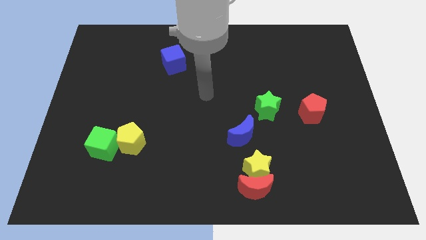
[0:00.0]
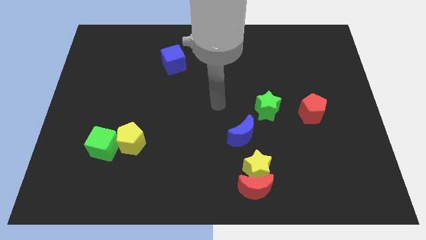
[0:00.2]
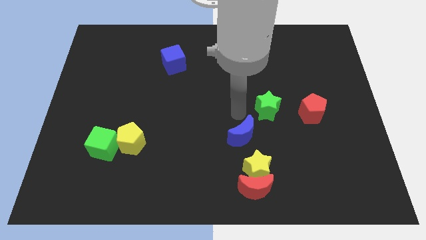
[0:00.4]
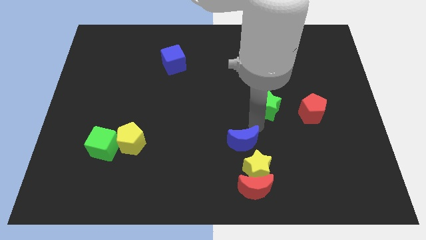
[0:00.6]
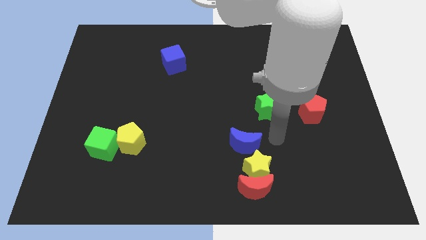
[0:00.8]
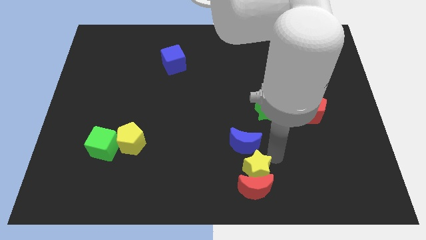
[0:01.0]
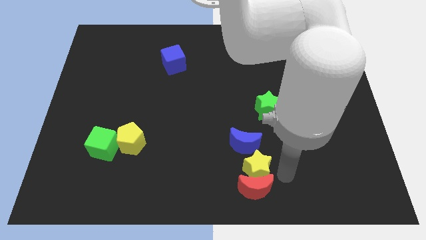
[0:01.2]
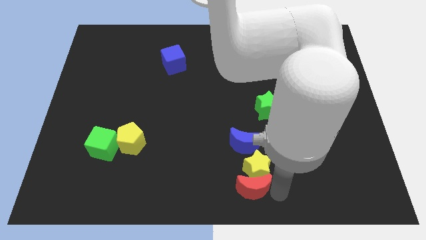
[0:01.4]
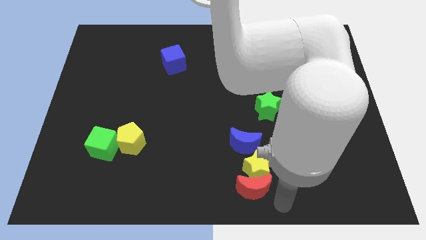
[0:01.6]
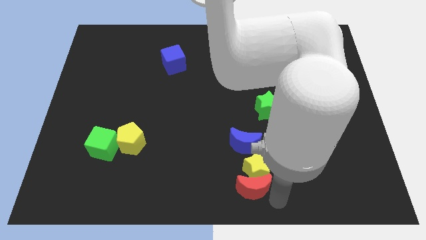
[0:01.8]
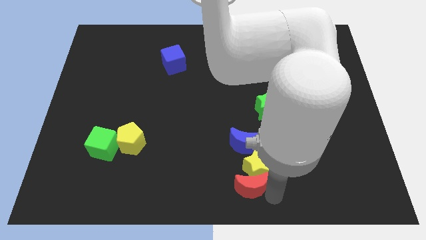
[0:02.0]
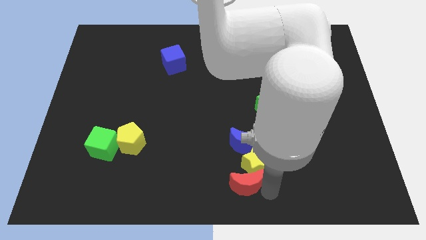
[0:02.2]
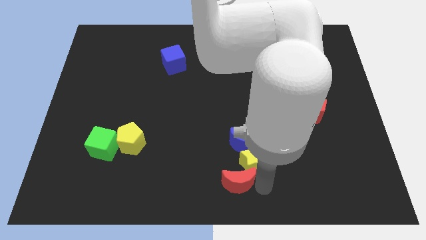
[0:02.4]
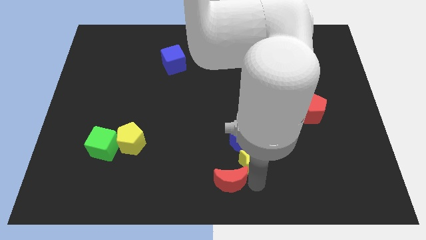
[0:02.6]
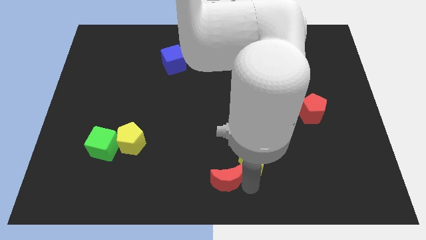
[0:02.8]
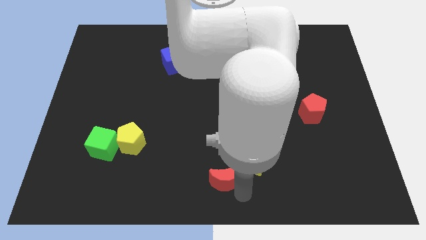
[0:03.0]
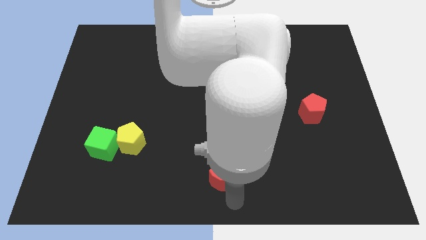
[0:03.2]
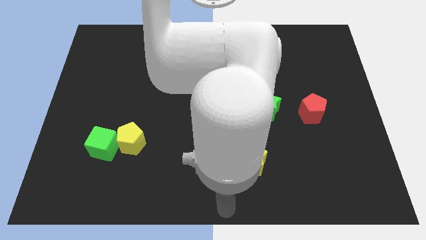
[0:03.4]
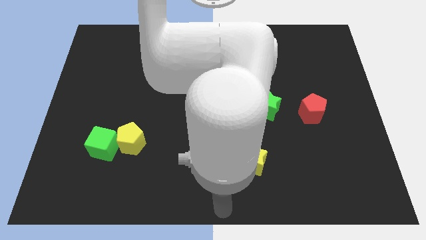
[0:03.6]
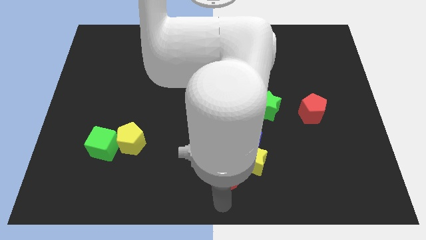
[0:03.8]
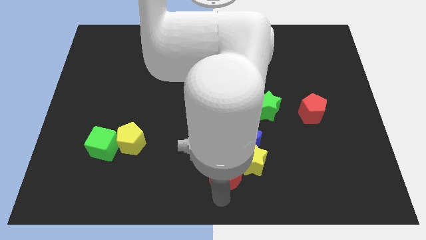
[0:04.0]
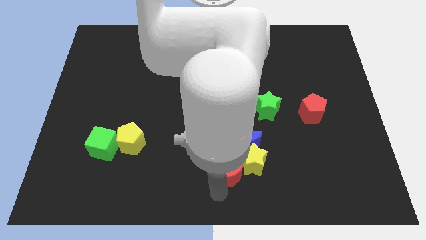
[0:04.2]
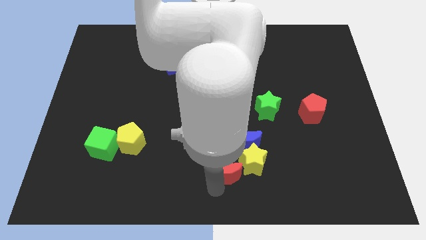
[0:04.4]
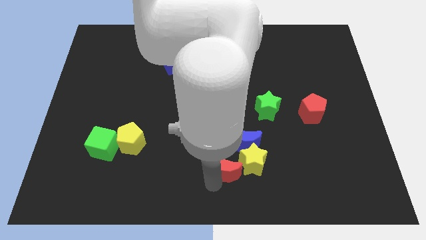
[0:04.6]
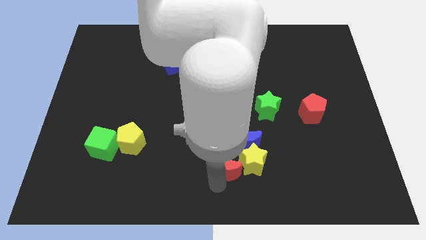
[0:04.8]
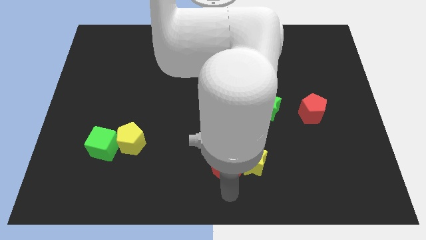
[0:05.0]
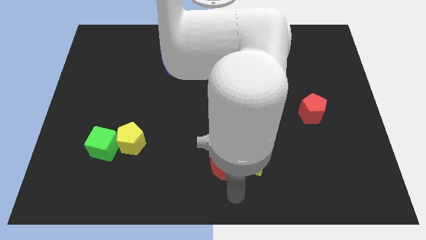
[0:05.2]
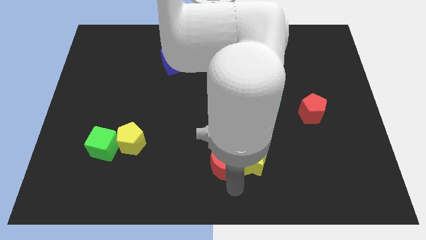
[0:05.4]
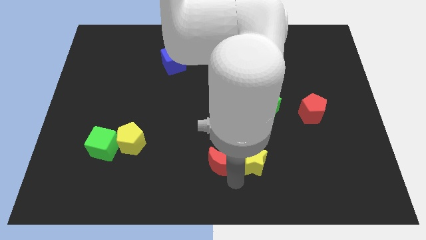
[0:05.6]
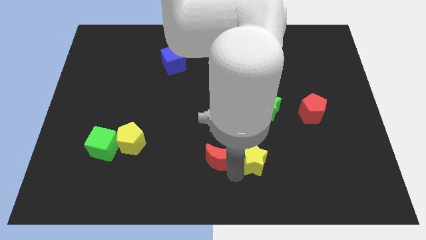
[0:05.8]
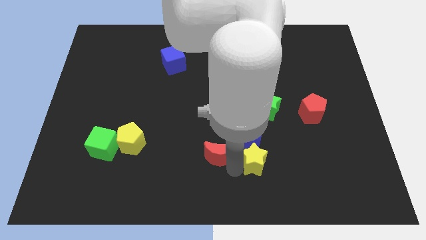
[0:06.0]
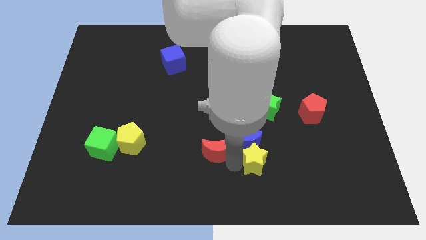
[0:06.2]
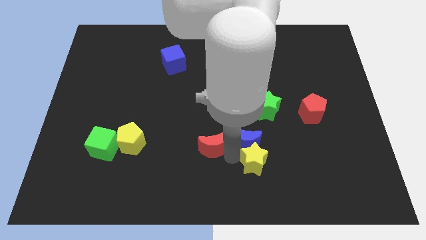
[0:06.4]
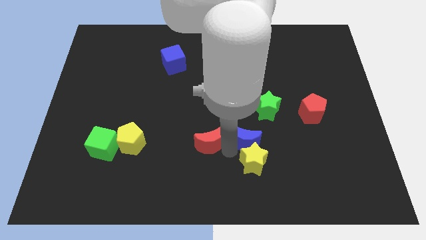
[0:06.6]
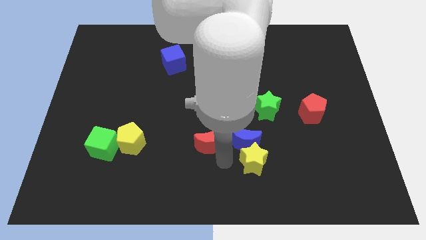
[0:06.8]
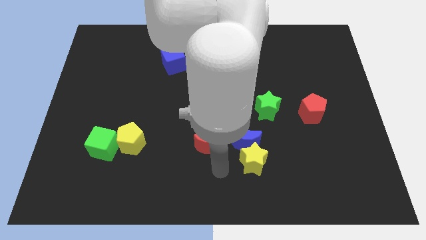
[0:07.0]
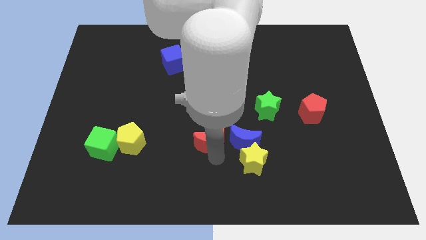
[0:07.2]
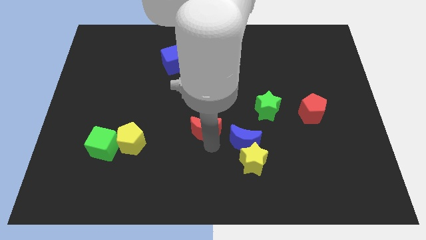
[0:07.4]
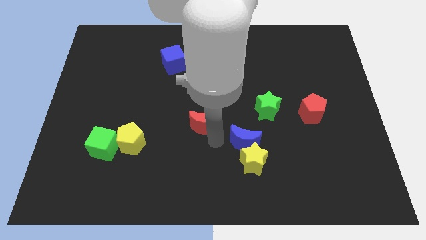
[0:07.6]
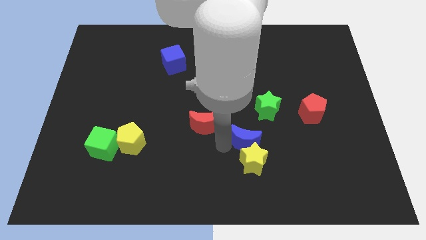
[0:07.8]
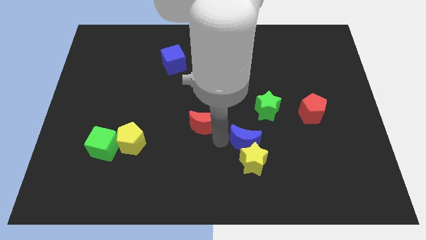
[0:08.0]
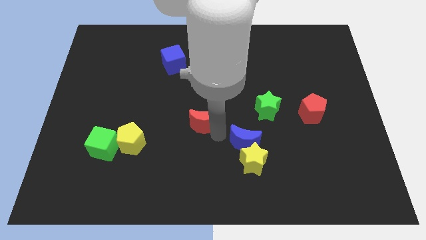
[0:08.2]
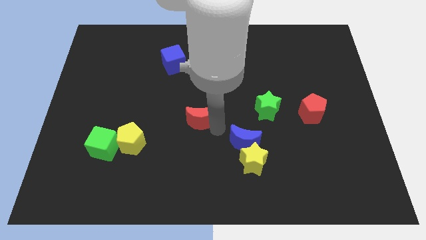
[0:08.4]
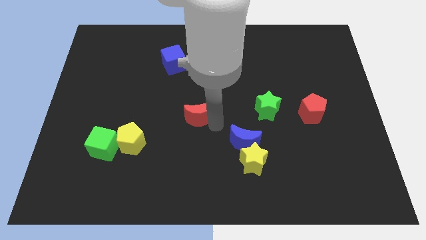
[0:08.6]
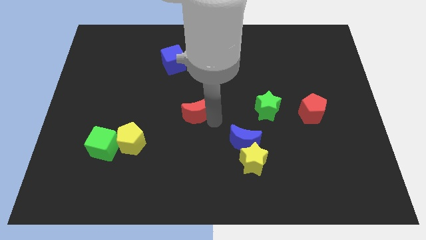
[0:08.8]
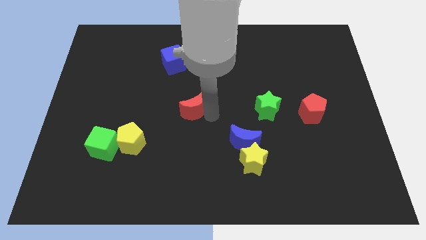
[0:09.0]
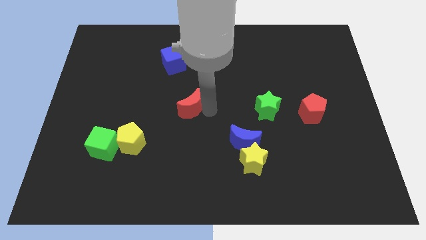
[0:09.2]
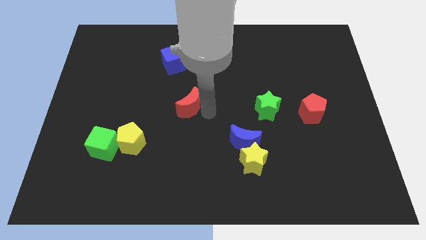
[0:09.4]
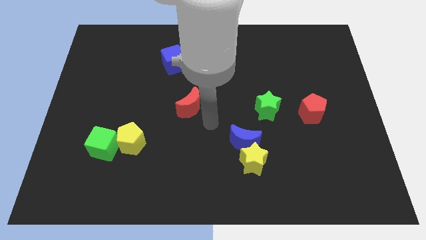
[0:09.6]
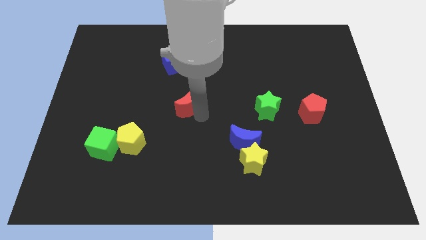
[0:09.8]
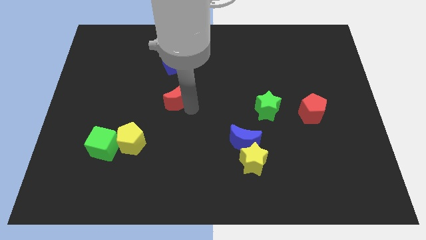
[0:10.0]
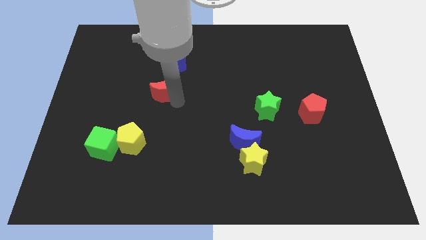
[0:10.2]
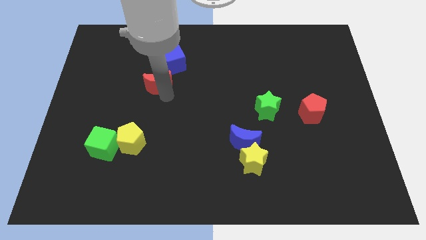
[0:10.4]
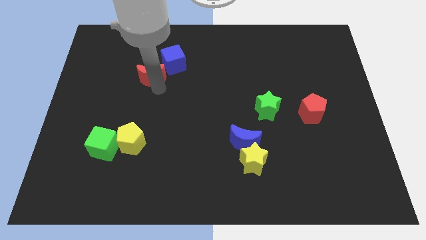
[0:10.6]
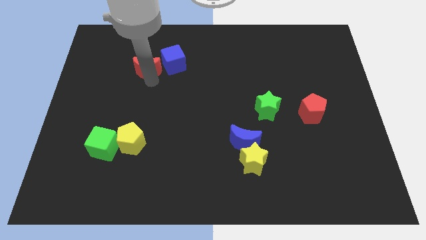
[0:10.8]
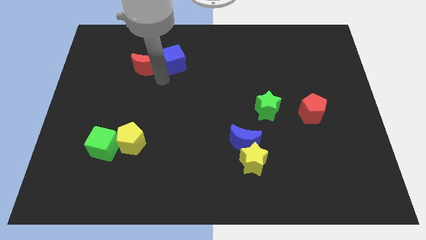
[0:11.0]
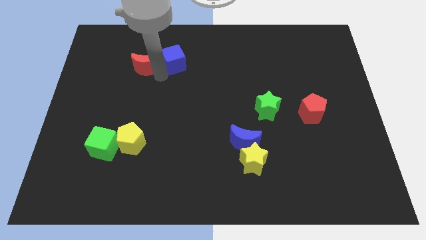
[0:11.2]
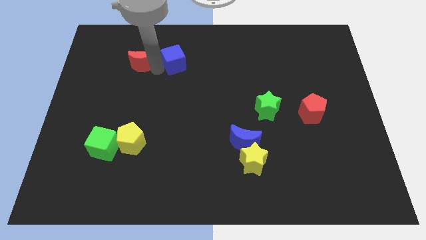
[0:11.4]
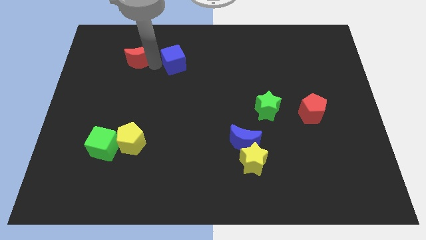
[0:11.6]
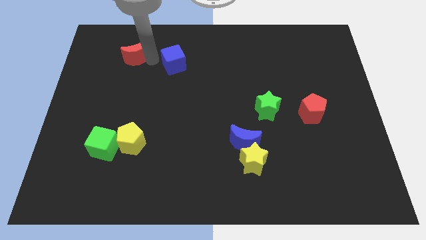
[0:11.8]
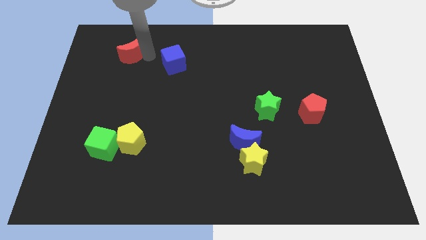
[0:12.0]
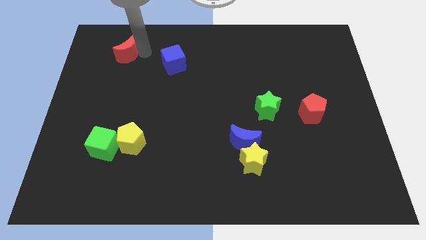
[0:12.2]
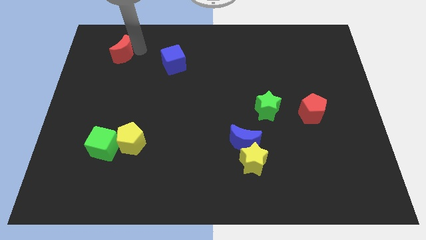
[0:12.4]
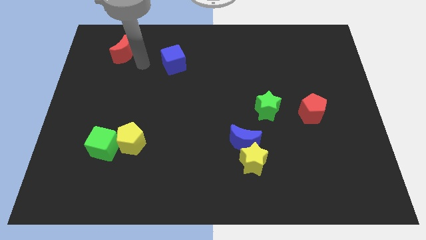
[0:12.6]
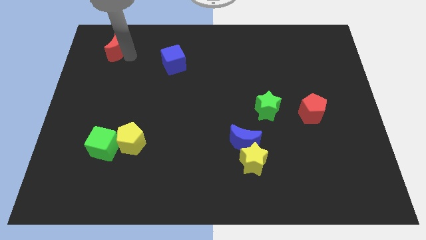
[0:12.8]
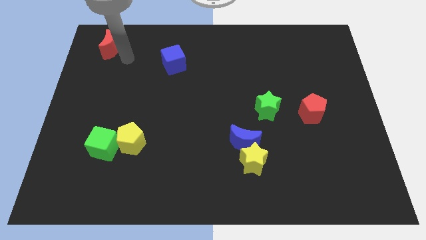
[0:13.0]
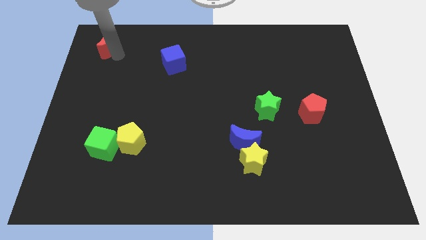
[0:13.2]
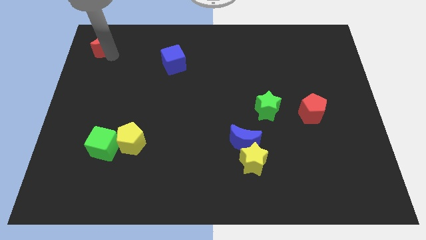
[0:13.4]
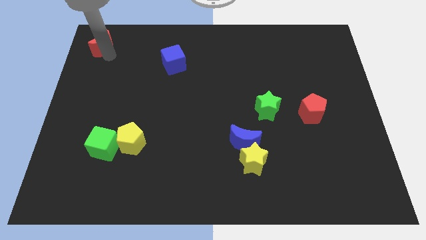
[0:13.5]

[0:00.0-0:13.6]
slide the red moon to the top left corner
